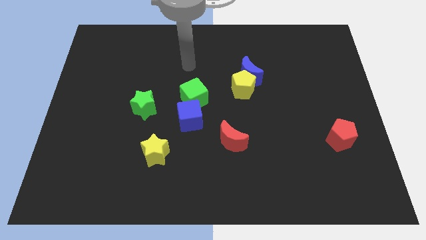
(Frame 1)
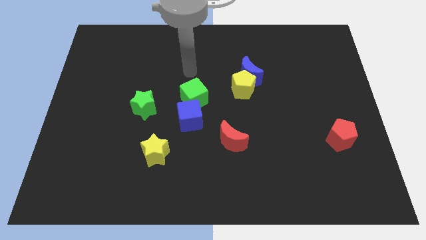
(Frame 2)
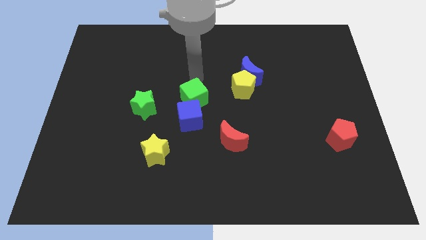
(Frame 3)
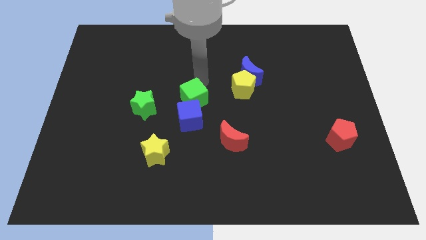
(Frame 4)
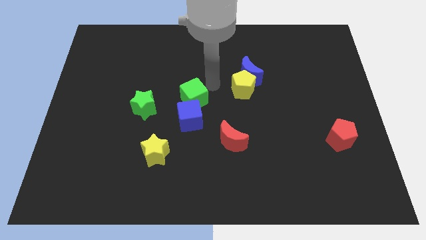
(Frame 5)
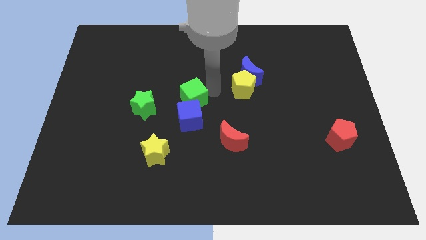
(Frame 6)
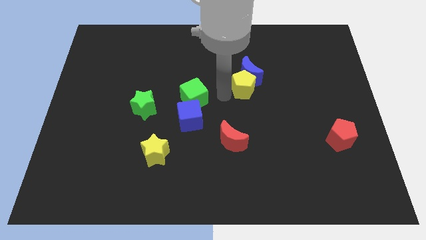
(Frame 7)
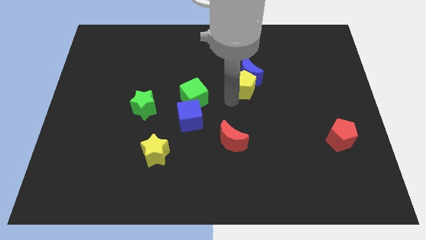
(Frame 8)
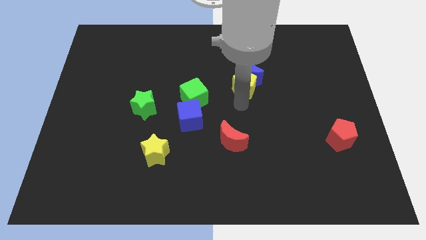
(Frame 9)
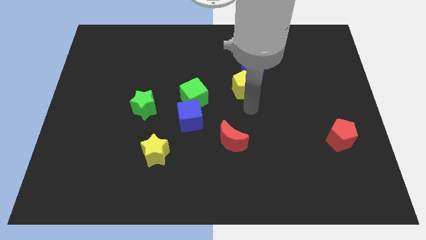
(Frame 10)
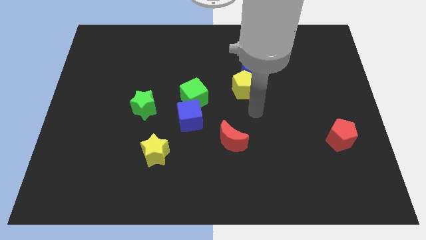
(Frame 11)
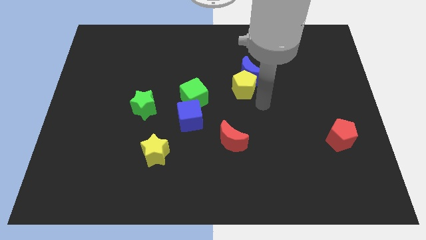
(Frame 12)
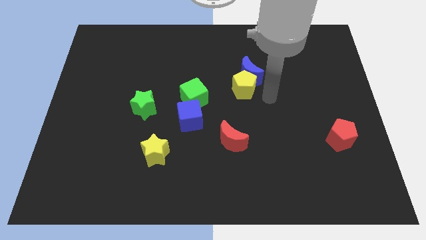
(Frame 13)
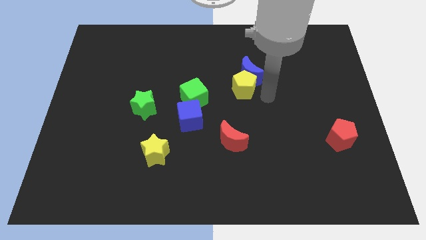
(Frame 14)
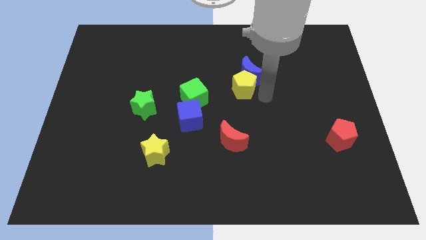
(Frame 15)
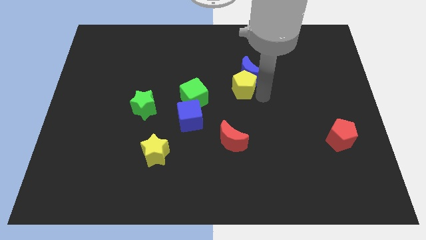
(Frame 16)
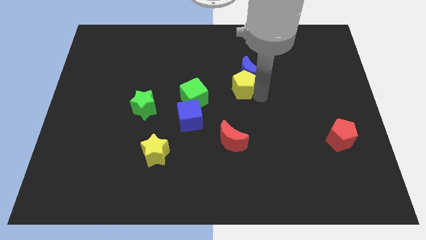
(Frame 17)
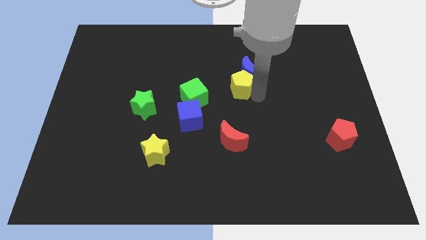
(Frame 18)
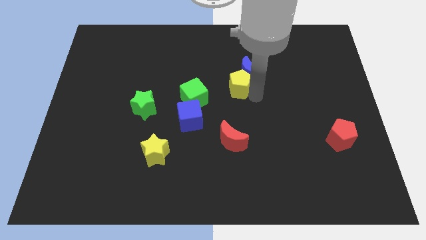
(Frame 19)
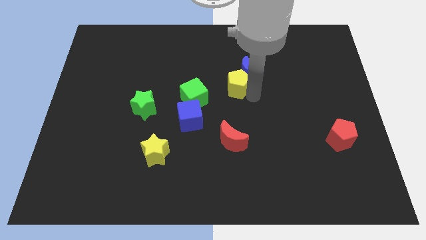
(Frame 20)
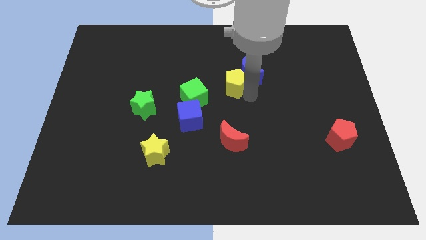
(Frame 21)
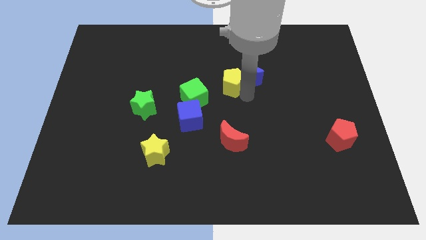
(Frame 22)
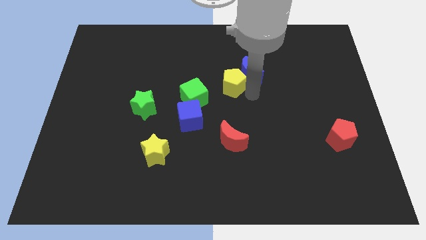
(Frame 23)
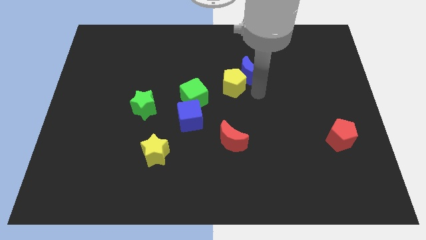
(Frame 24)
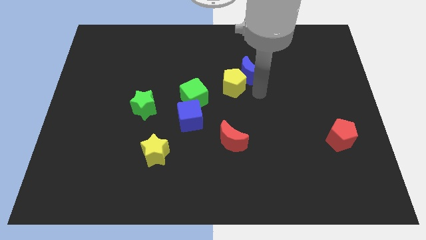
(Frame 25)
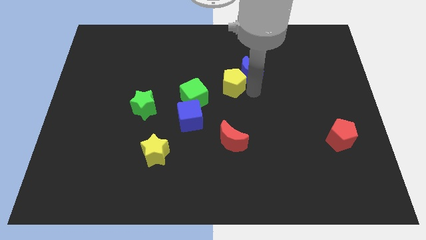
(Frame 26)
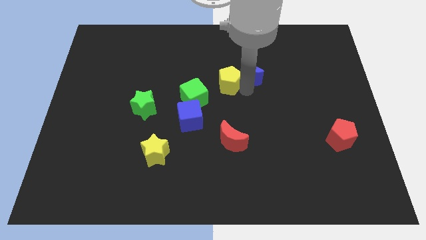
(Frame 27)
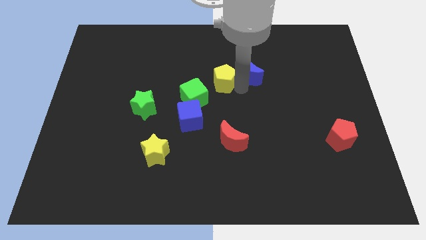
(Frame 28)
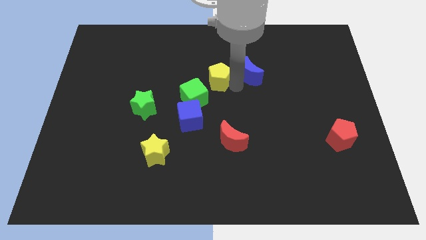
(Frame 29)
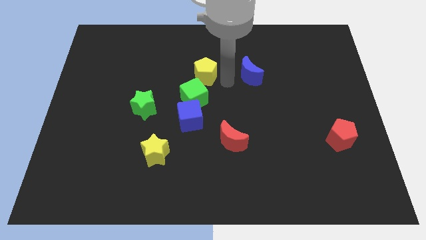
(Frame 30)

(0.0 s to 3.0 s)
push the yellow pentagon left a little bit

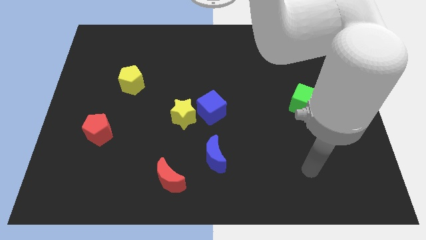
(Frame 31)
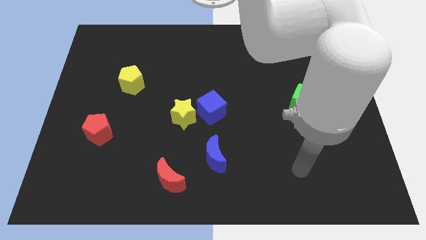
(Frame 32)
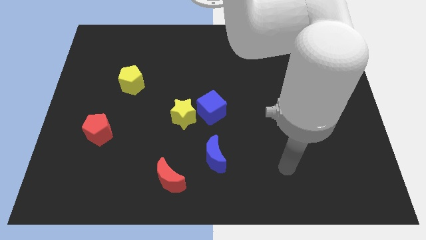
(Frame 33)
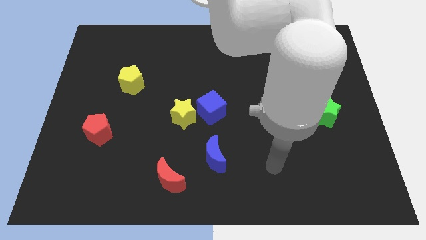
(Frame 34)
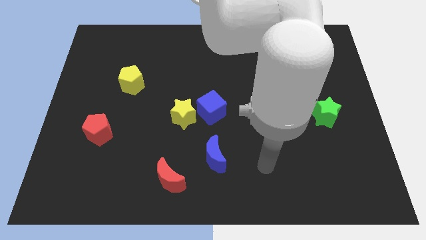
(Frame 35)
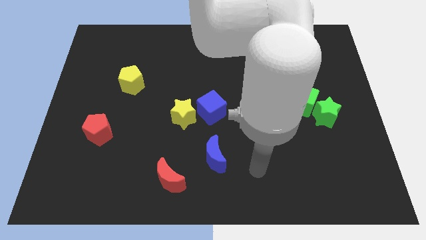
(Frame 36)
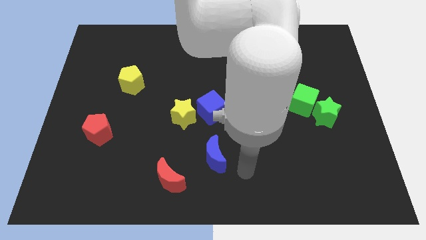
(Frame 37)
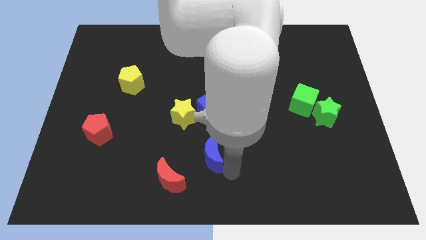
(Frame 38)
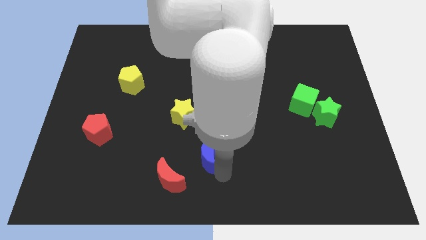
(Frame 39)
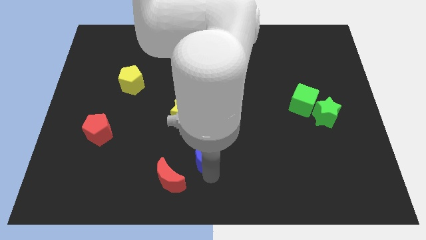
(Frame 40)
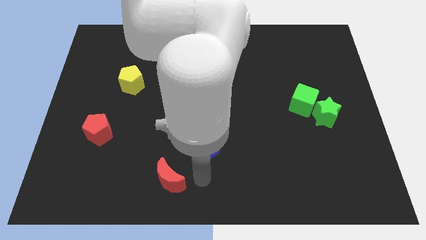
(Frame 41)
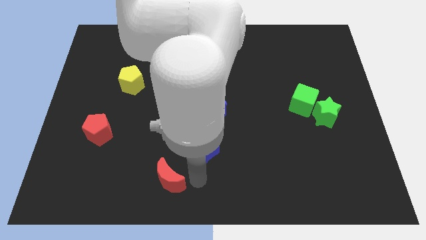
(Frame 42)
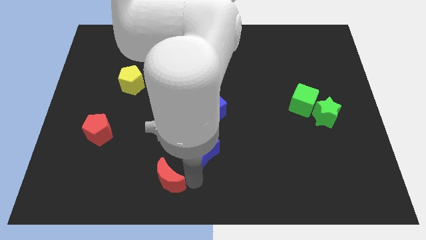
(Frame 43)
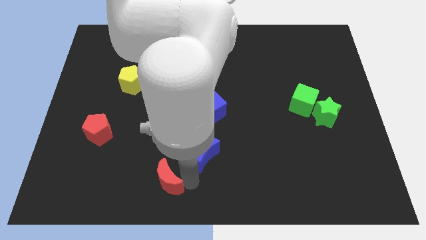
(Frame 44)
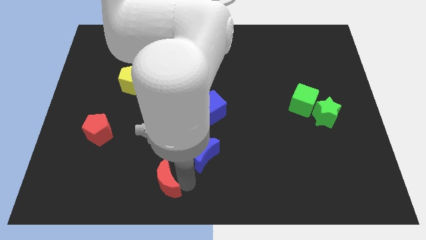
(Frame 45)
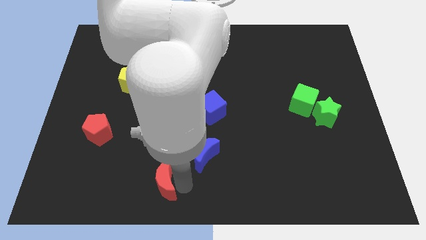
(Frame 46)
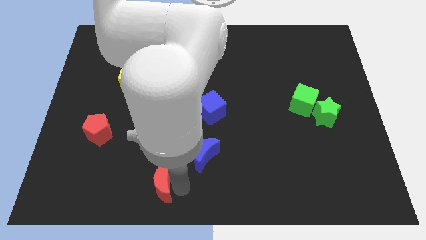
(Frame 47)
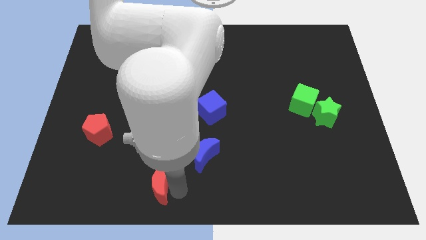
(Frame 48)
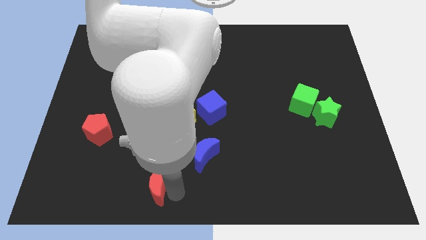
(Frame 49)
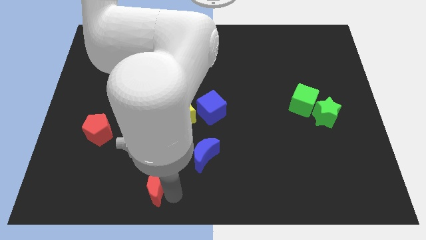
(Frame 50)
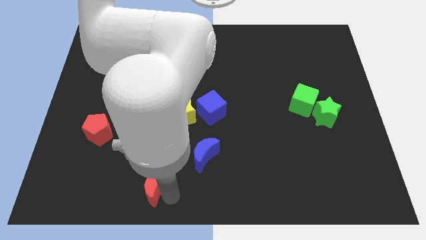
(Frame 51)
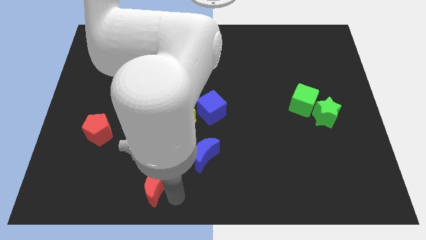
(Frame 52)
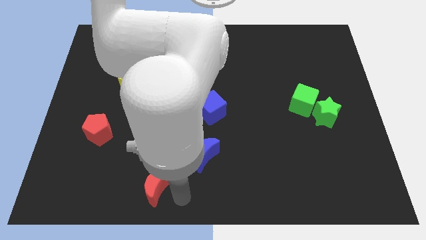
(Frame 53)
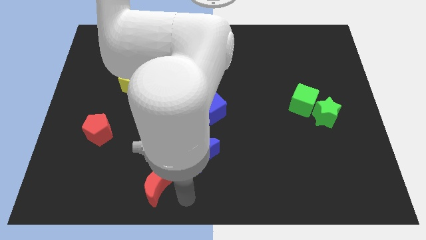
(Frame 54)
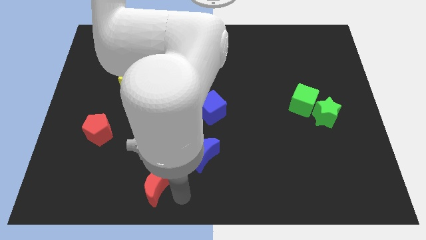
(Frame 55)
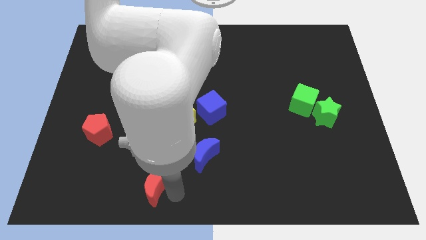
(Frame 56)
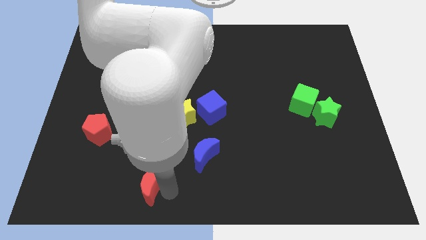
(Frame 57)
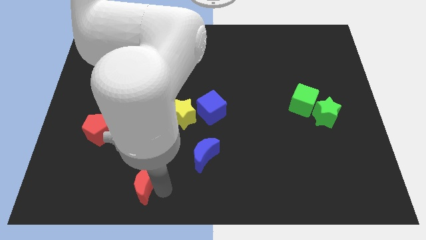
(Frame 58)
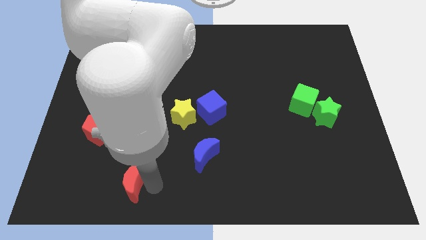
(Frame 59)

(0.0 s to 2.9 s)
move the red moon a bit to the left

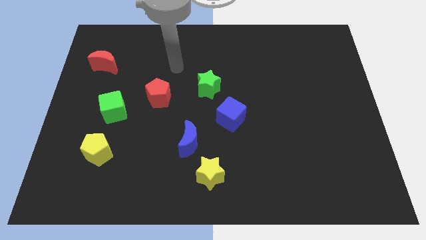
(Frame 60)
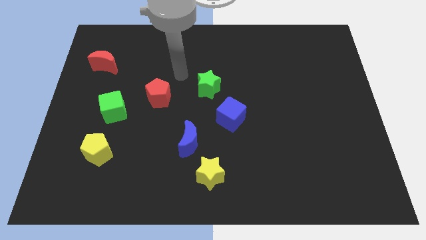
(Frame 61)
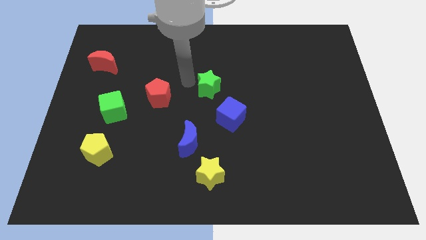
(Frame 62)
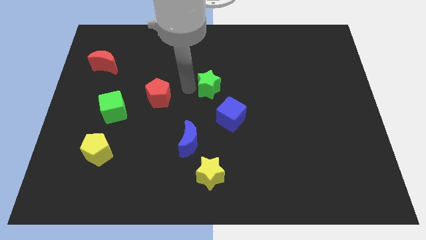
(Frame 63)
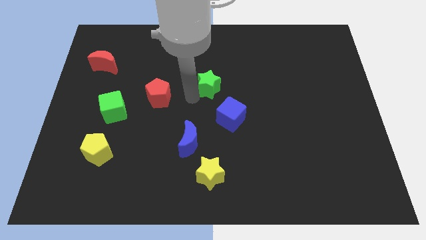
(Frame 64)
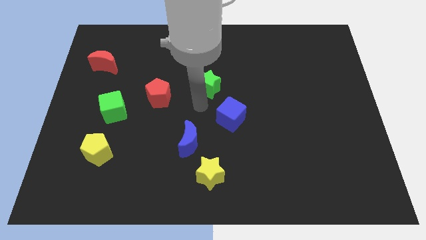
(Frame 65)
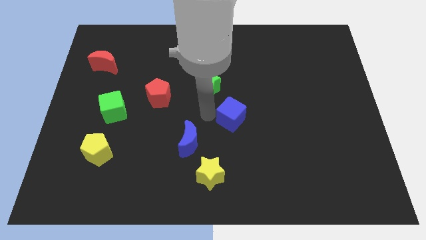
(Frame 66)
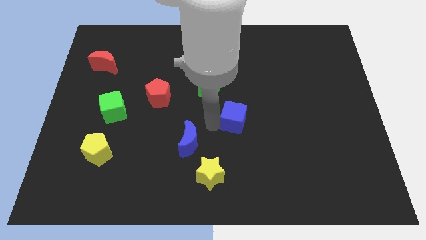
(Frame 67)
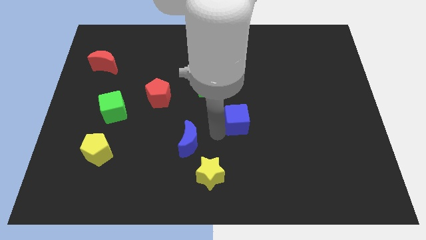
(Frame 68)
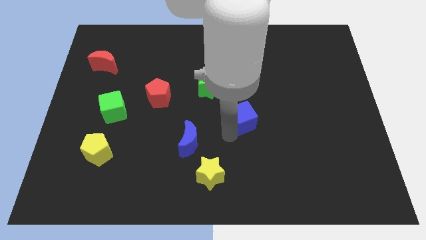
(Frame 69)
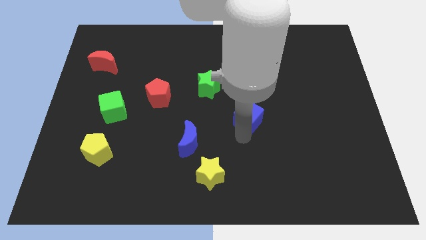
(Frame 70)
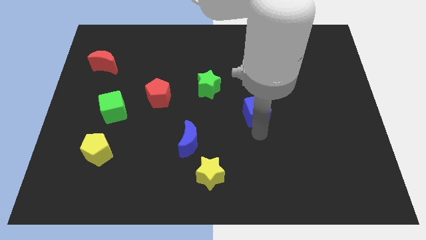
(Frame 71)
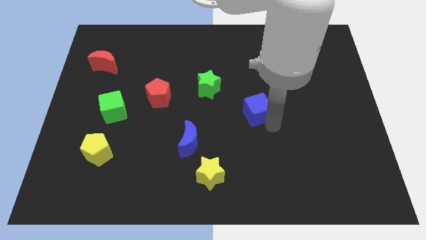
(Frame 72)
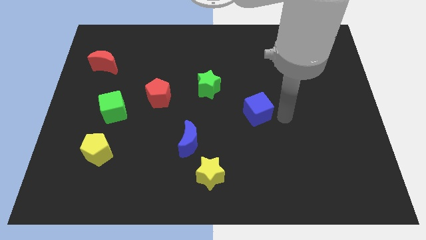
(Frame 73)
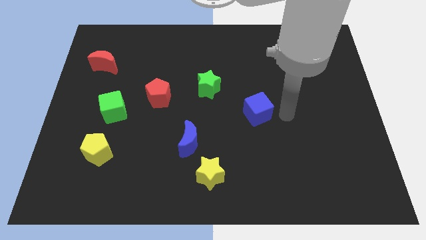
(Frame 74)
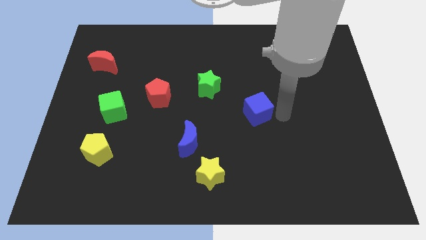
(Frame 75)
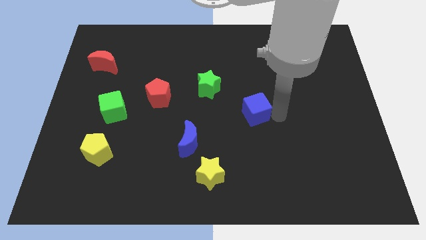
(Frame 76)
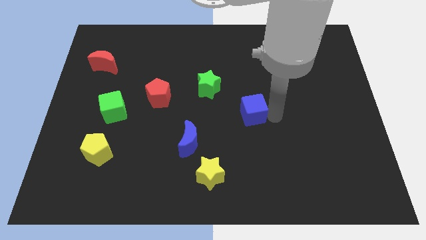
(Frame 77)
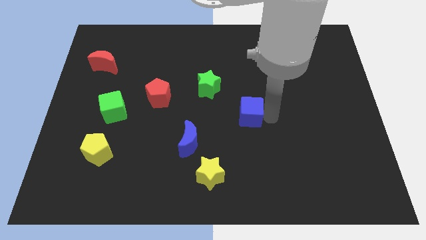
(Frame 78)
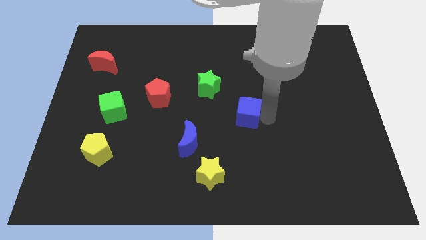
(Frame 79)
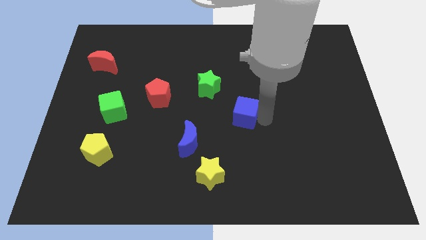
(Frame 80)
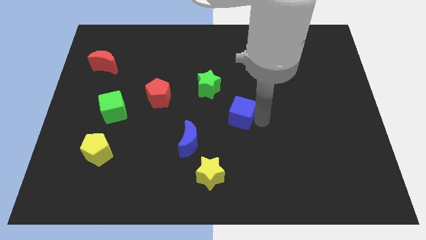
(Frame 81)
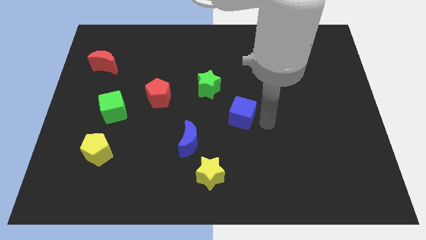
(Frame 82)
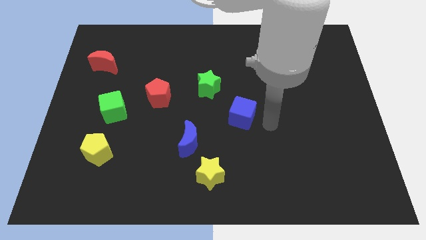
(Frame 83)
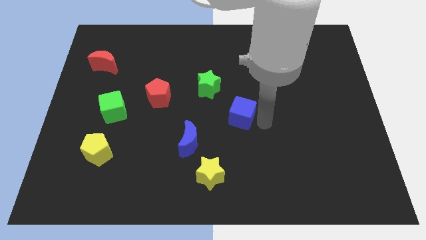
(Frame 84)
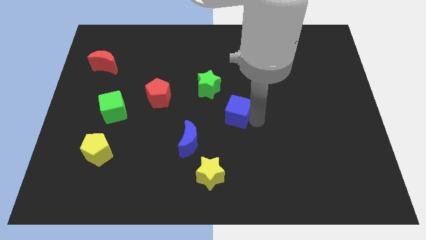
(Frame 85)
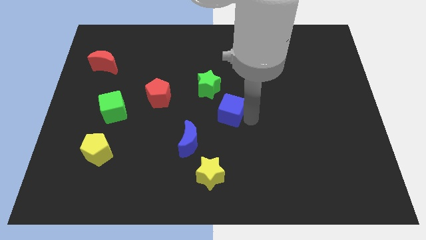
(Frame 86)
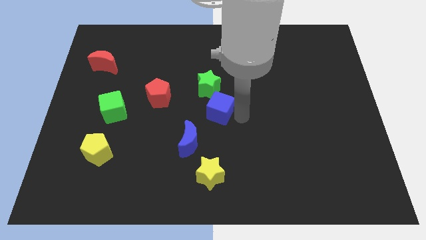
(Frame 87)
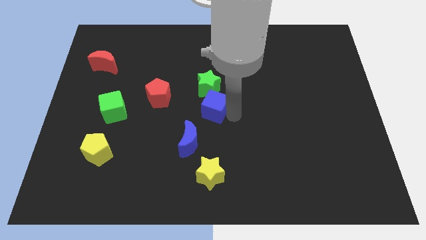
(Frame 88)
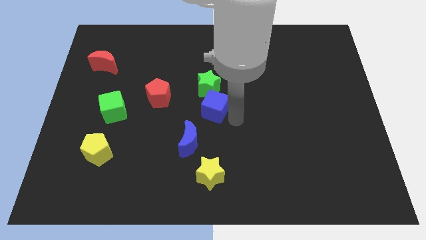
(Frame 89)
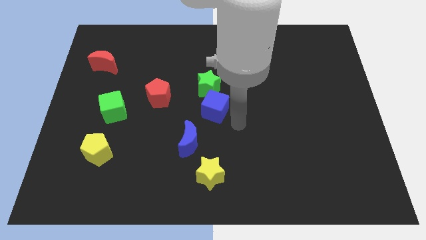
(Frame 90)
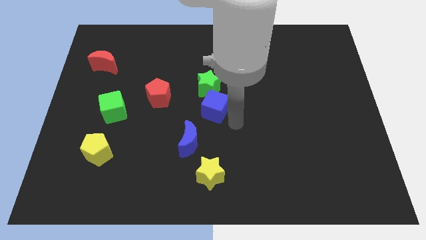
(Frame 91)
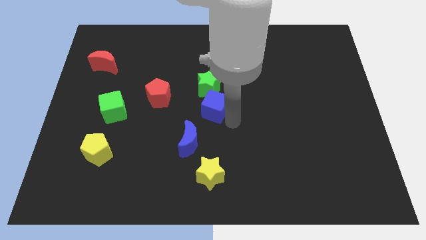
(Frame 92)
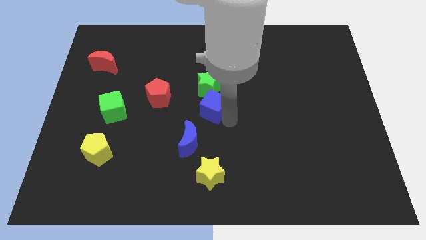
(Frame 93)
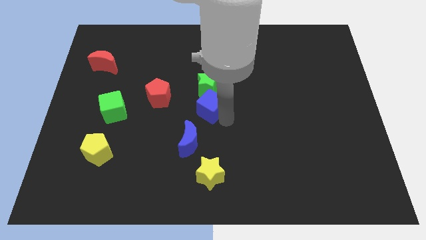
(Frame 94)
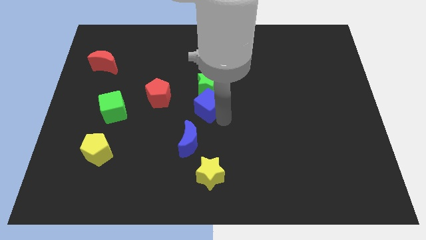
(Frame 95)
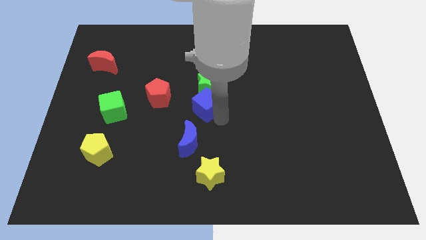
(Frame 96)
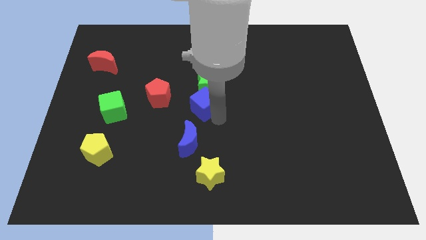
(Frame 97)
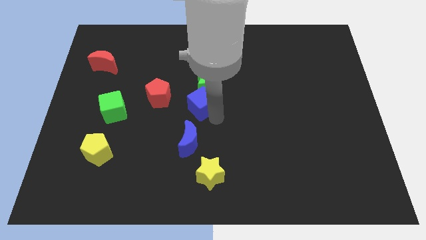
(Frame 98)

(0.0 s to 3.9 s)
push the blue cube a little up and left diagonally
